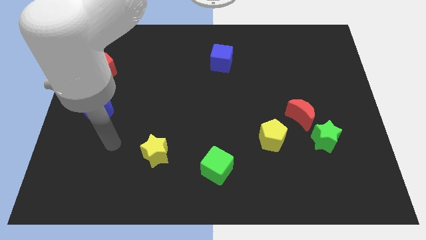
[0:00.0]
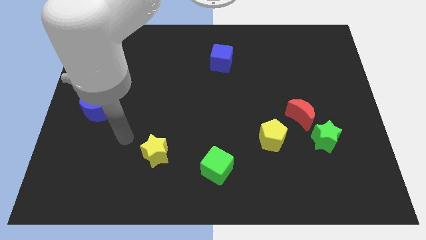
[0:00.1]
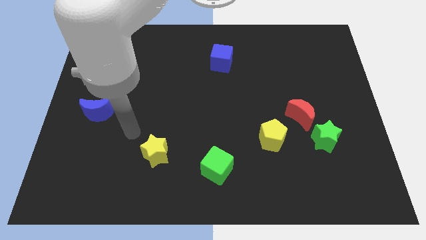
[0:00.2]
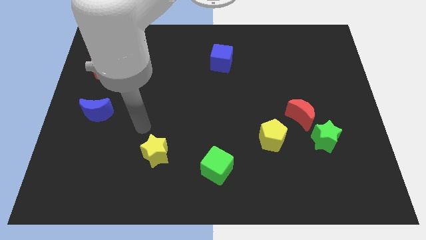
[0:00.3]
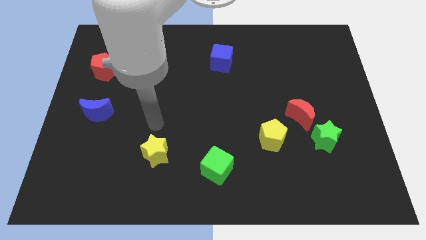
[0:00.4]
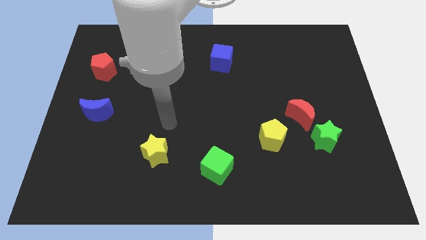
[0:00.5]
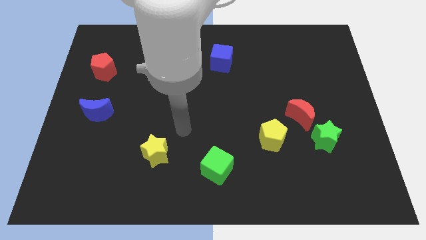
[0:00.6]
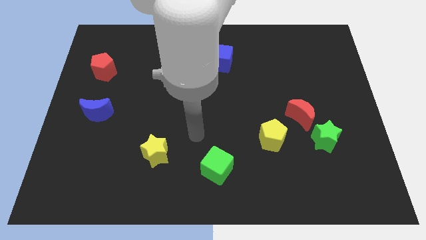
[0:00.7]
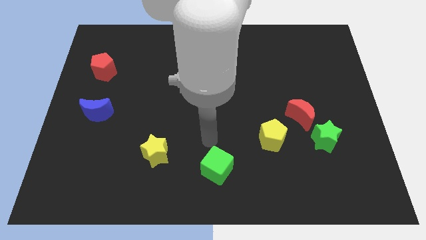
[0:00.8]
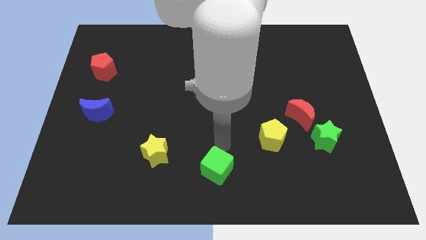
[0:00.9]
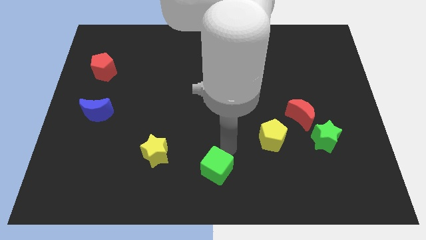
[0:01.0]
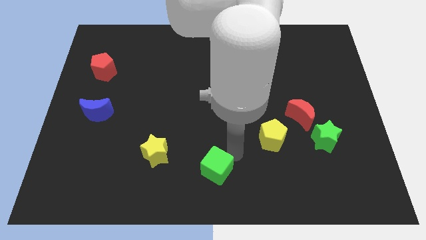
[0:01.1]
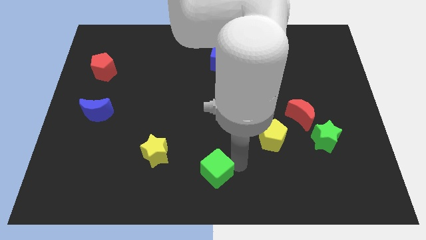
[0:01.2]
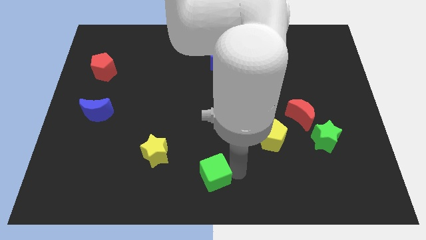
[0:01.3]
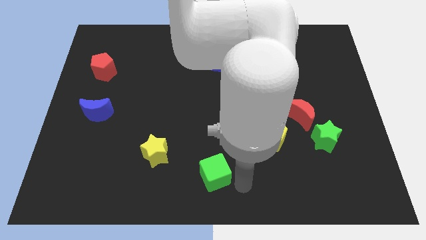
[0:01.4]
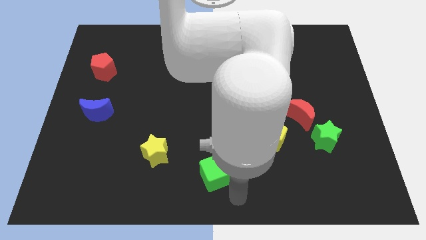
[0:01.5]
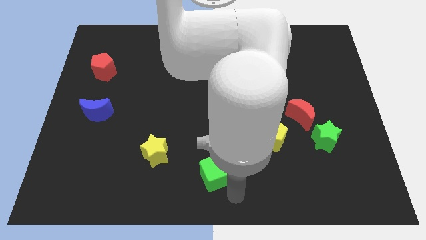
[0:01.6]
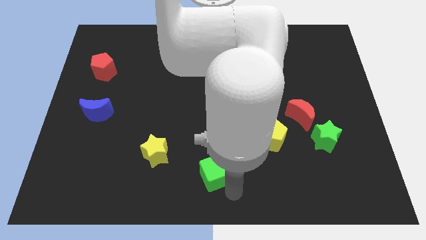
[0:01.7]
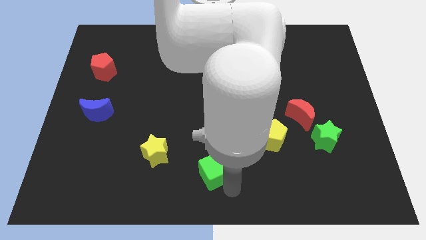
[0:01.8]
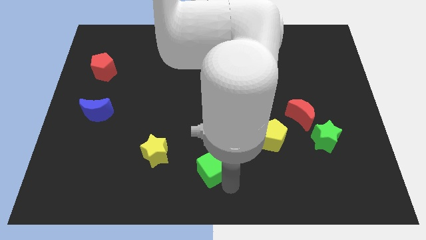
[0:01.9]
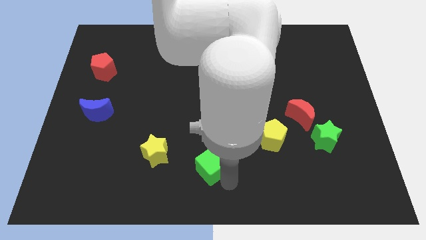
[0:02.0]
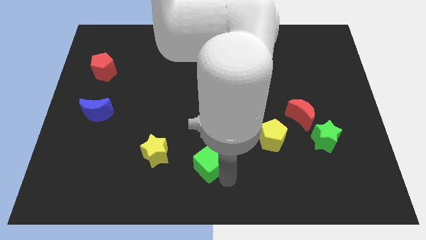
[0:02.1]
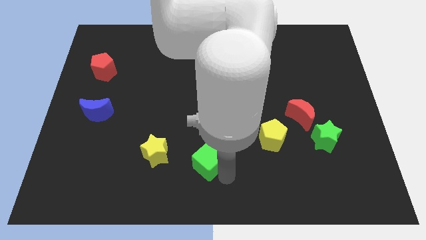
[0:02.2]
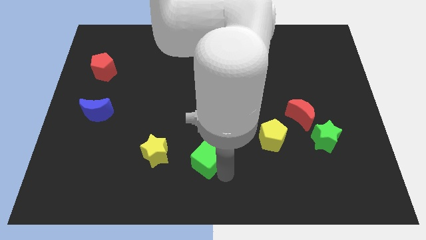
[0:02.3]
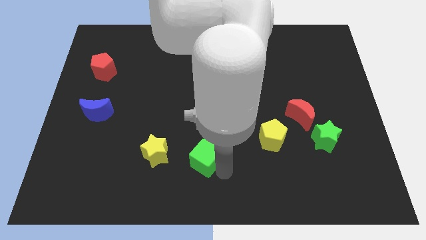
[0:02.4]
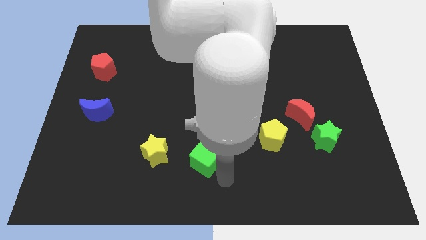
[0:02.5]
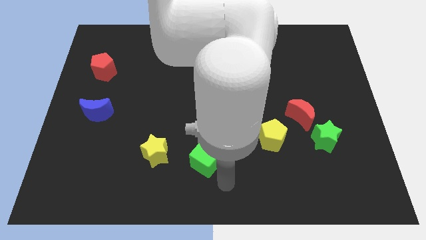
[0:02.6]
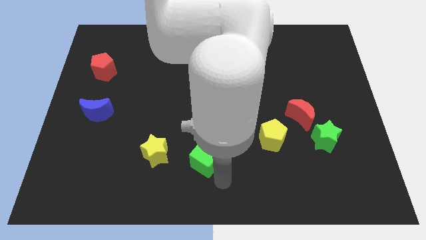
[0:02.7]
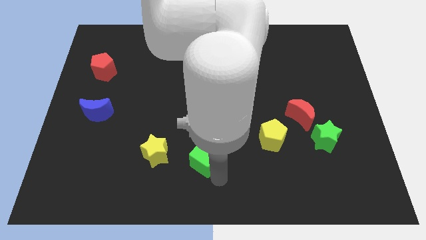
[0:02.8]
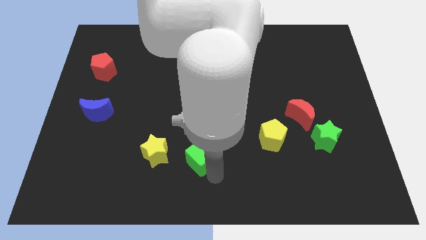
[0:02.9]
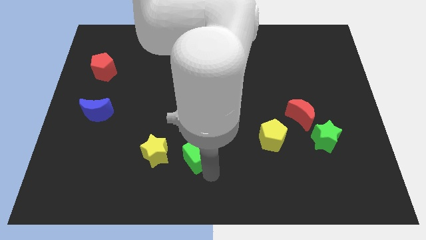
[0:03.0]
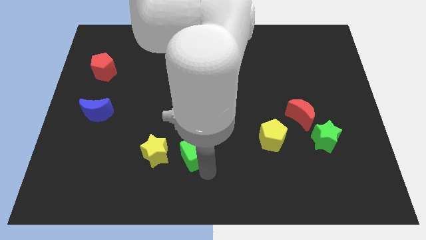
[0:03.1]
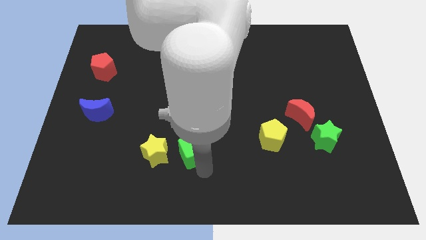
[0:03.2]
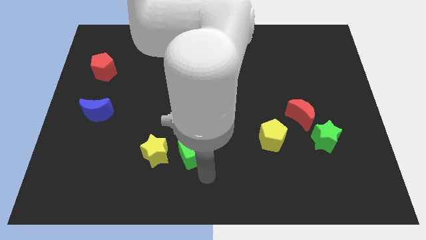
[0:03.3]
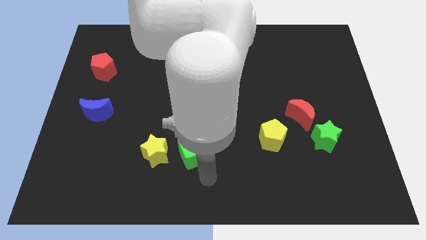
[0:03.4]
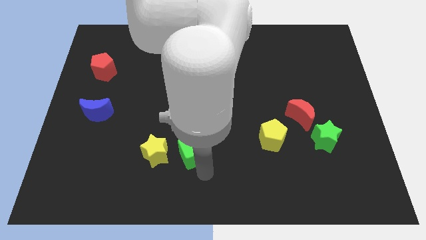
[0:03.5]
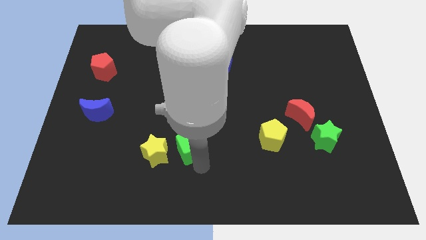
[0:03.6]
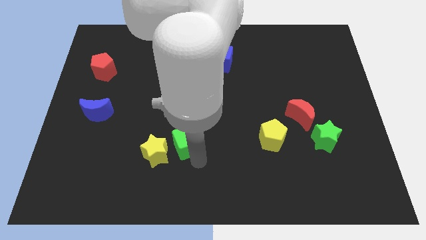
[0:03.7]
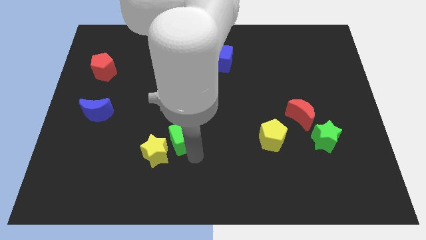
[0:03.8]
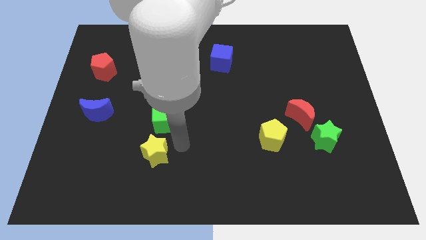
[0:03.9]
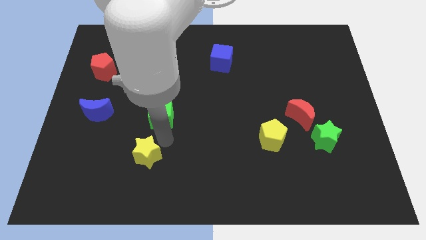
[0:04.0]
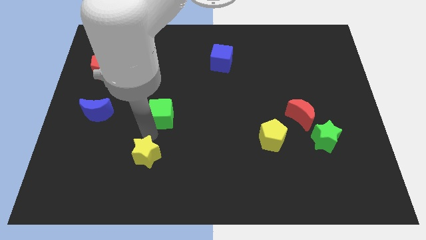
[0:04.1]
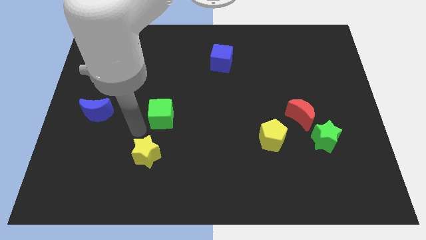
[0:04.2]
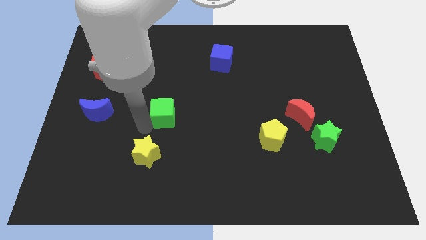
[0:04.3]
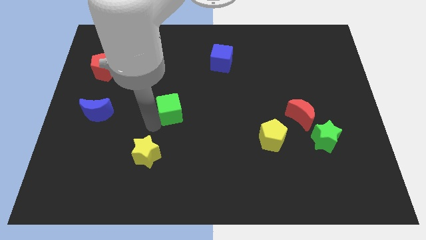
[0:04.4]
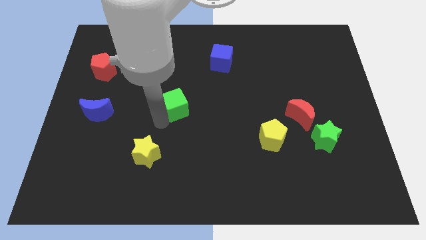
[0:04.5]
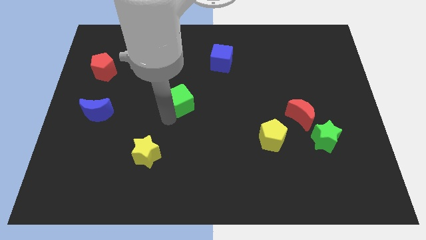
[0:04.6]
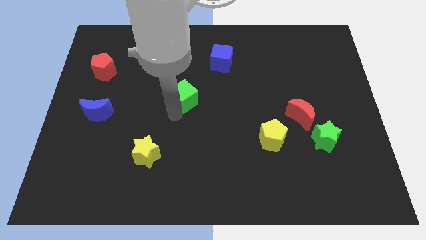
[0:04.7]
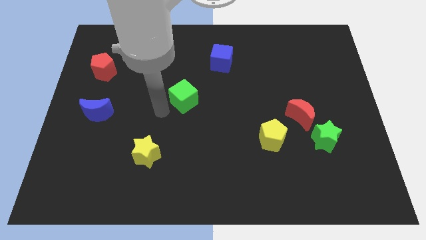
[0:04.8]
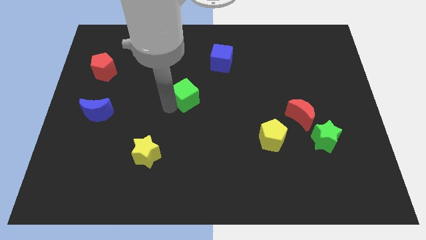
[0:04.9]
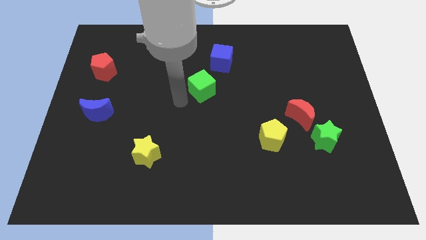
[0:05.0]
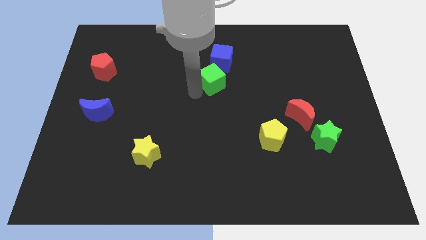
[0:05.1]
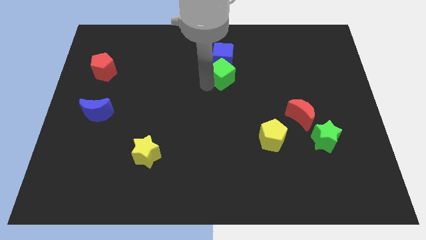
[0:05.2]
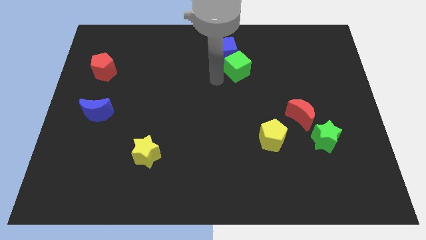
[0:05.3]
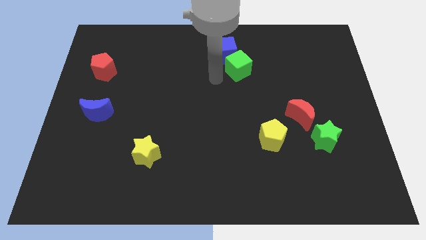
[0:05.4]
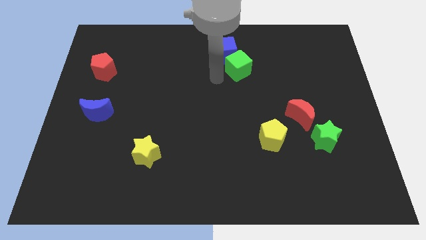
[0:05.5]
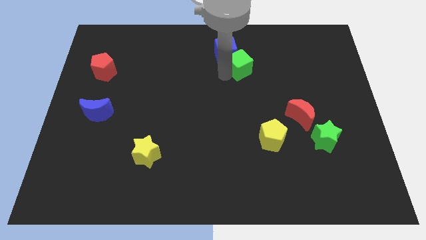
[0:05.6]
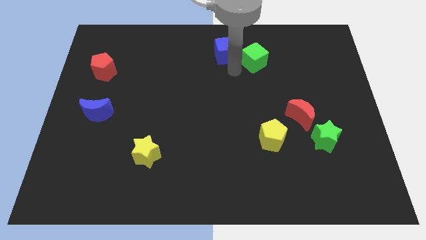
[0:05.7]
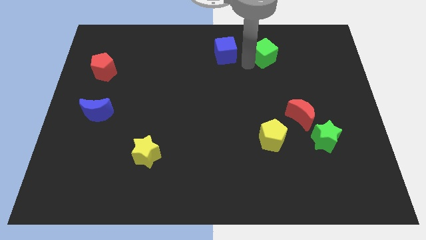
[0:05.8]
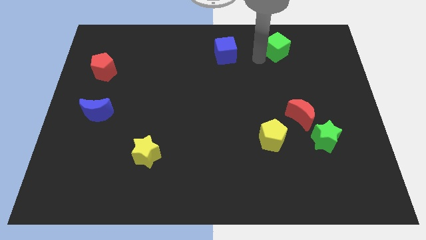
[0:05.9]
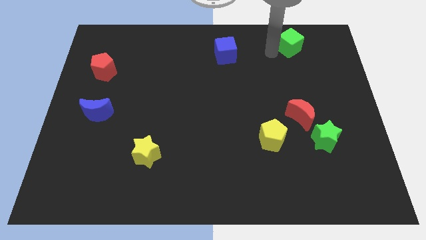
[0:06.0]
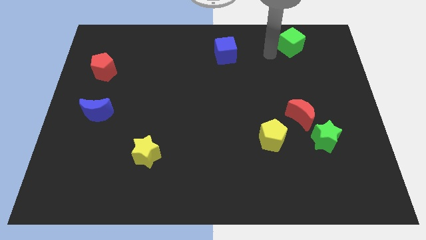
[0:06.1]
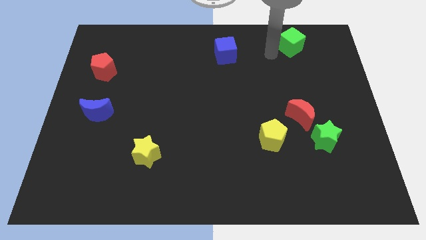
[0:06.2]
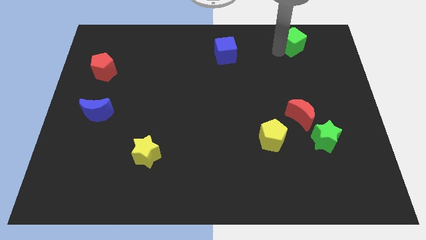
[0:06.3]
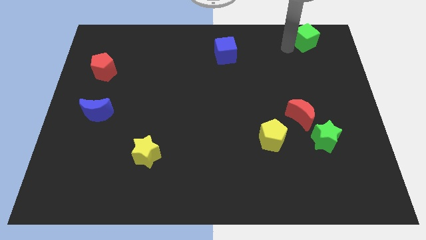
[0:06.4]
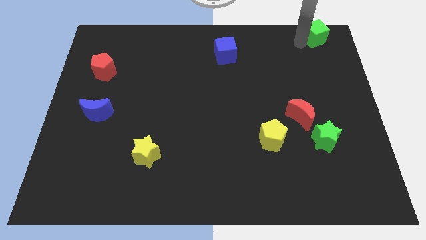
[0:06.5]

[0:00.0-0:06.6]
push the green cube to the top right
